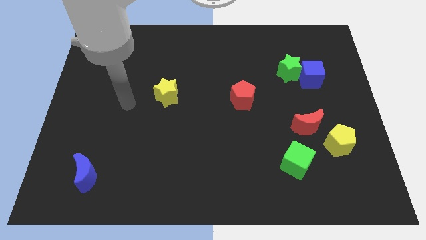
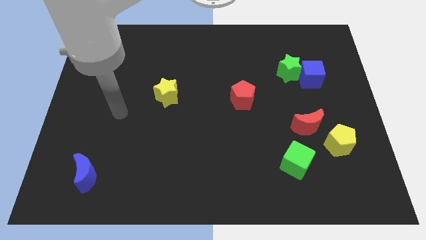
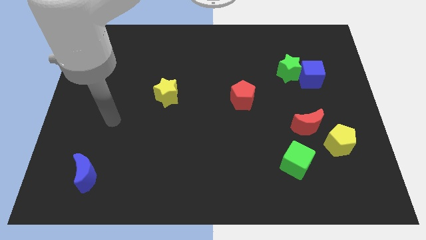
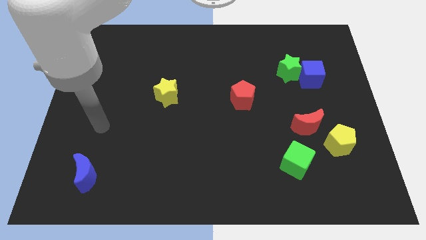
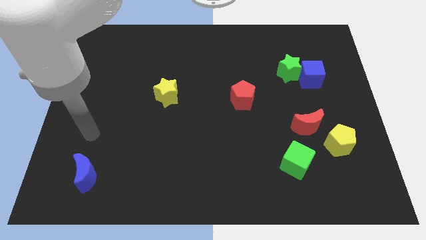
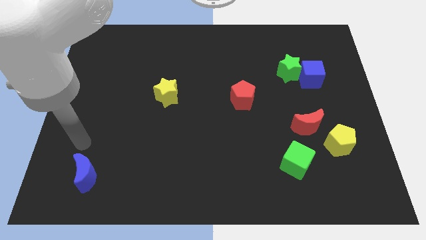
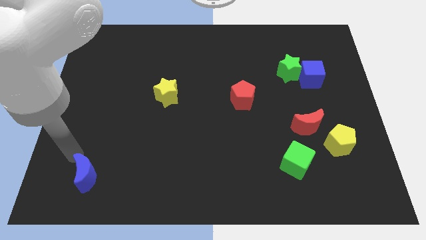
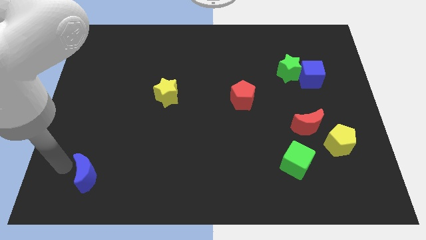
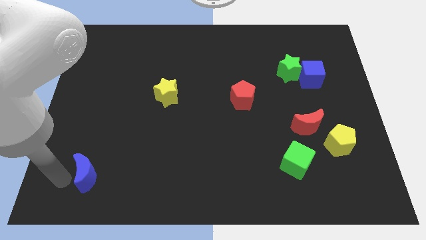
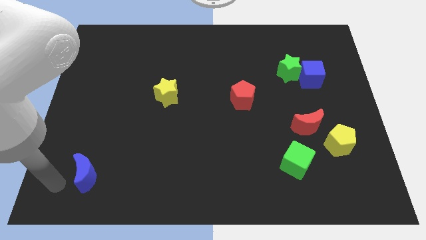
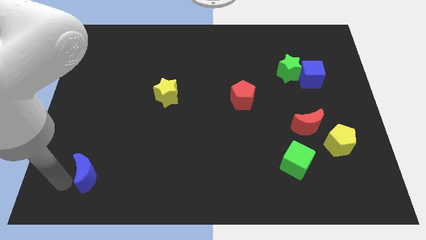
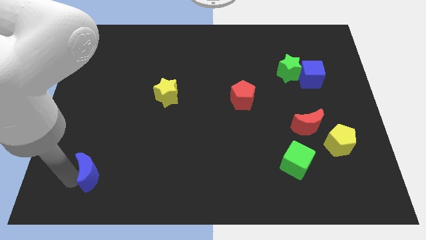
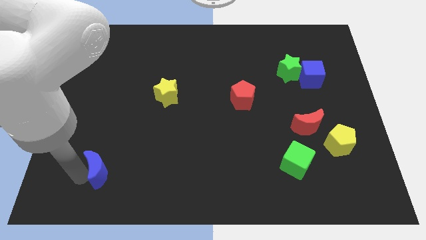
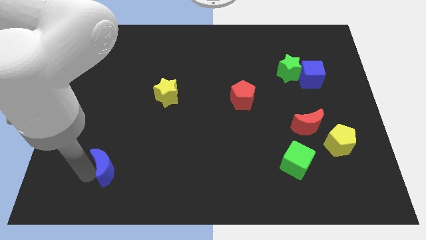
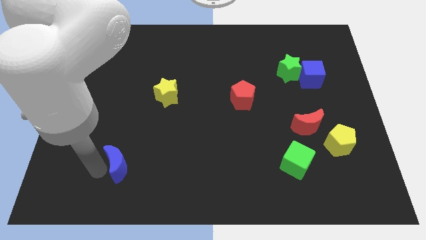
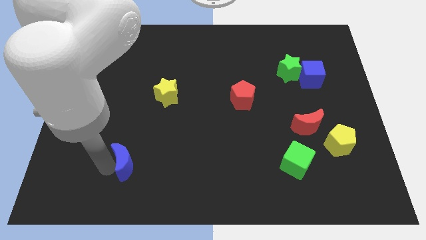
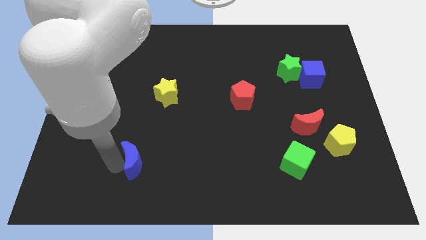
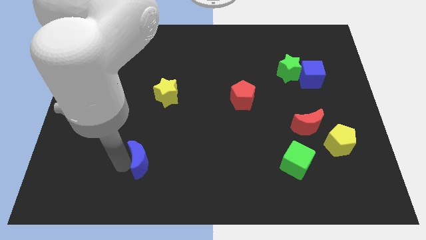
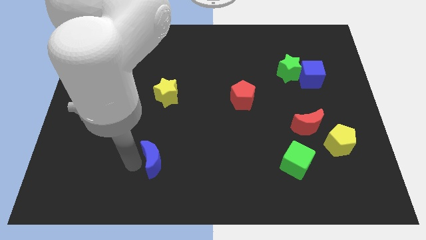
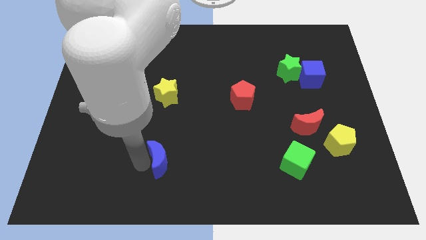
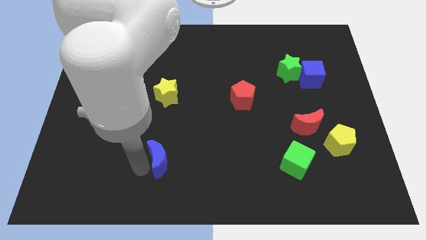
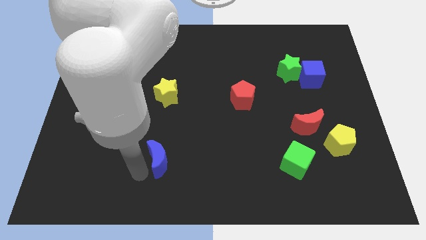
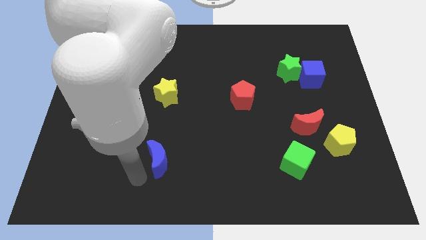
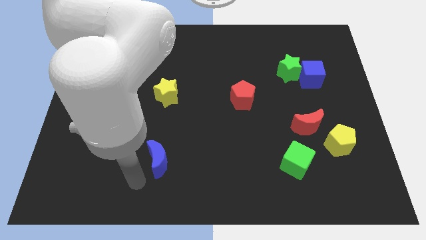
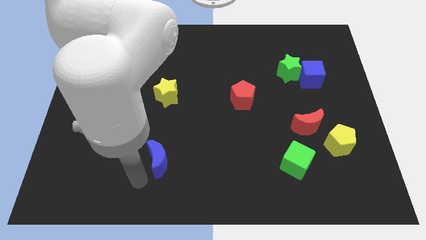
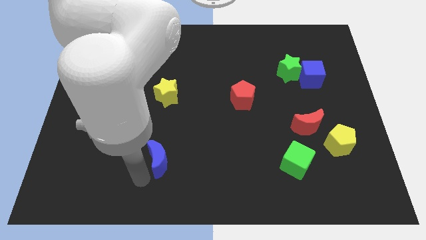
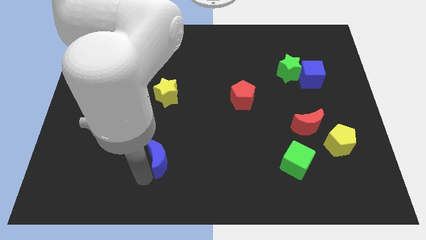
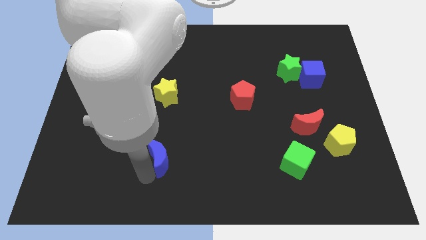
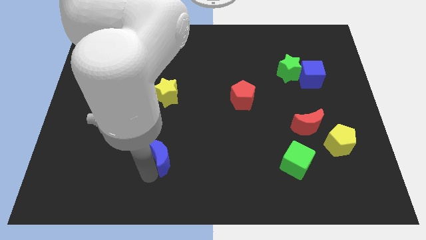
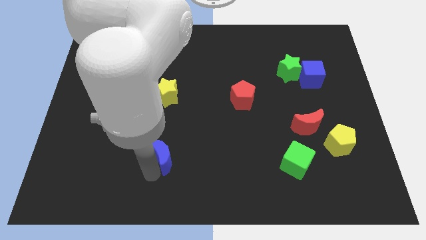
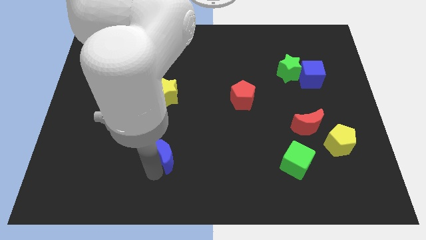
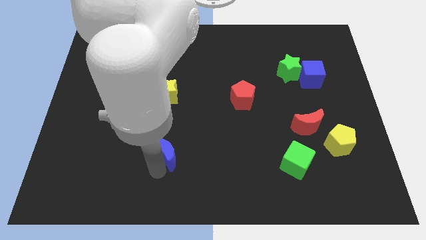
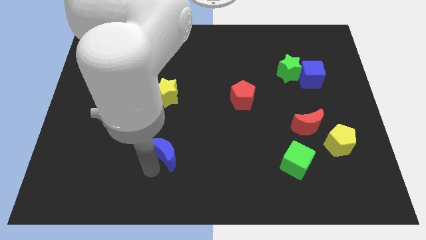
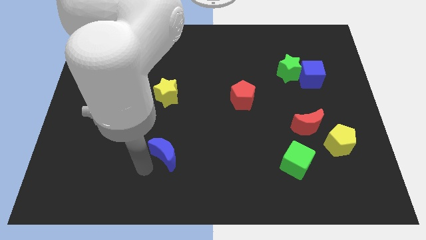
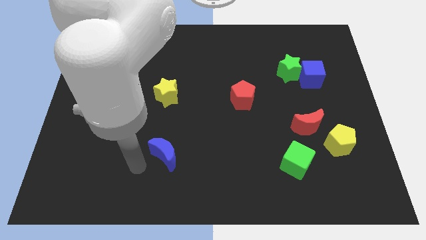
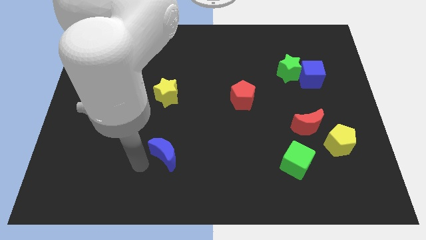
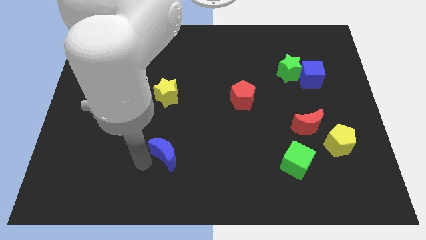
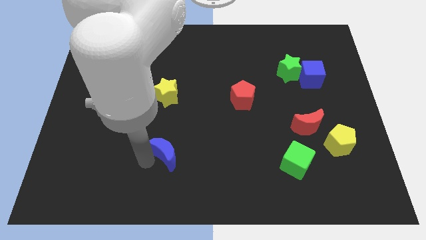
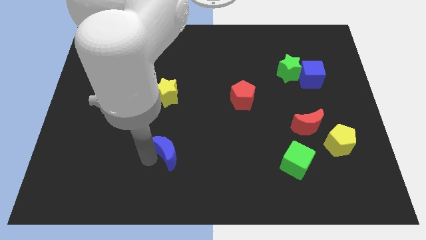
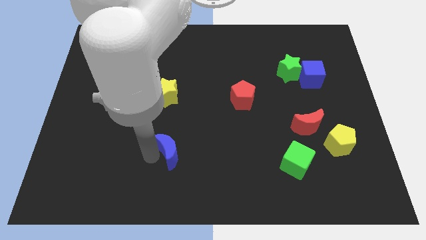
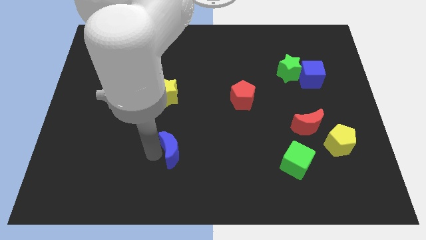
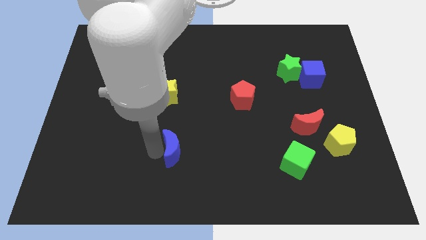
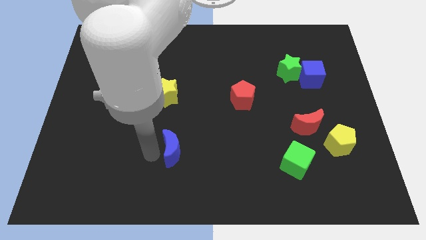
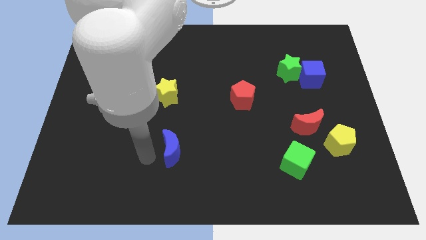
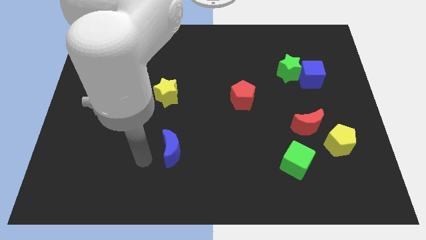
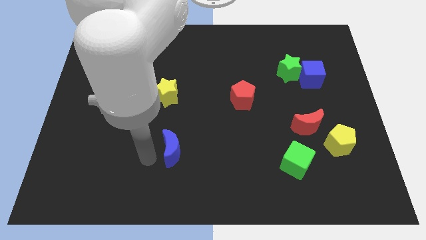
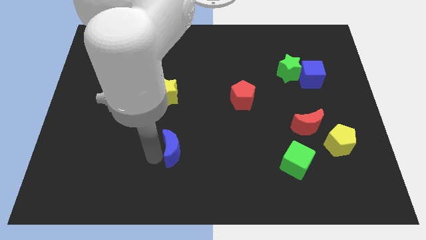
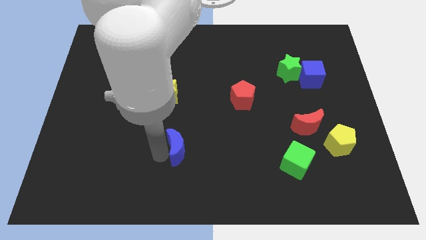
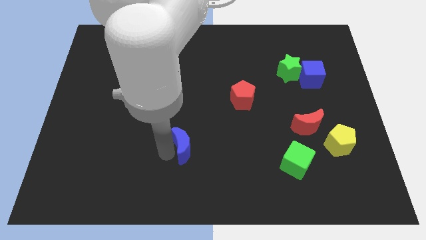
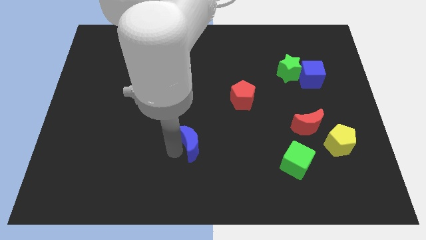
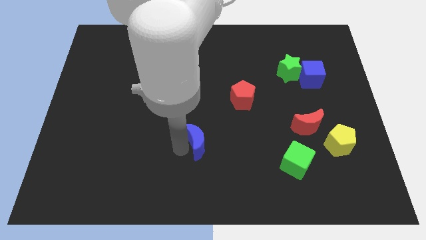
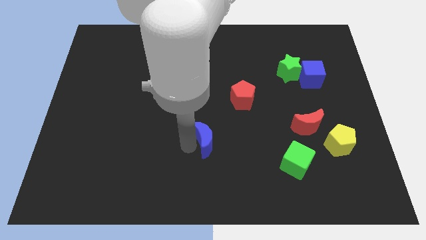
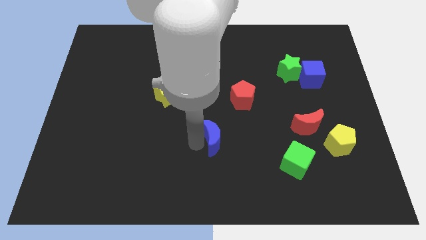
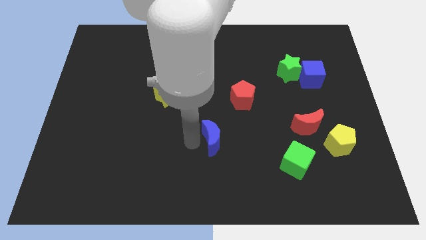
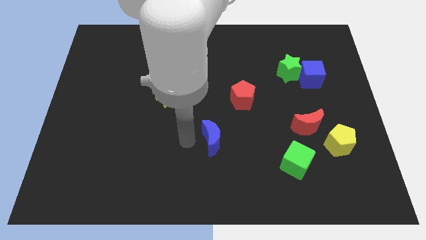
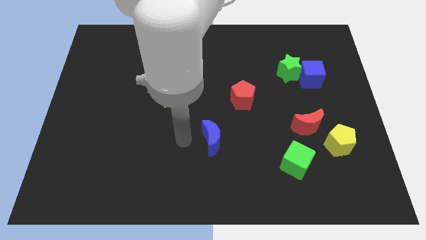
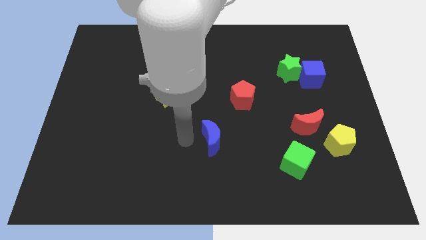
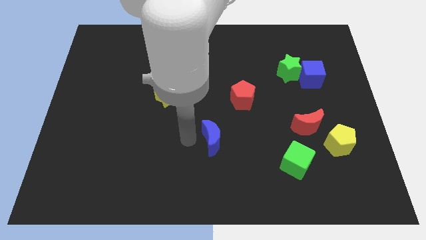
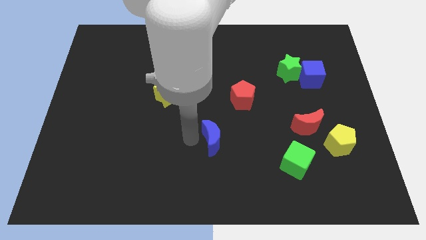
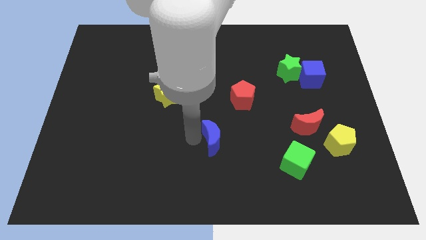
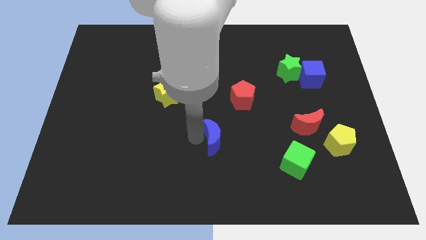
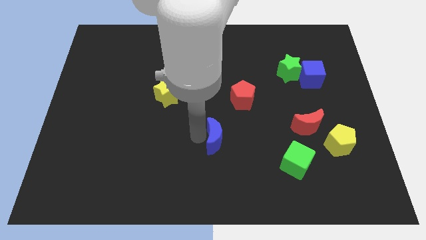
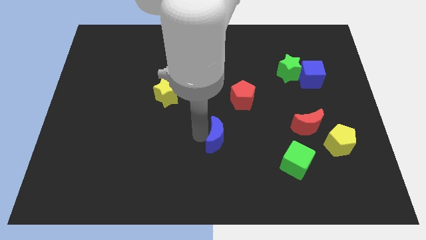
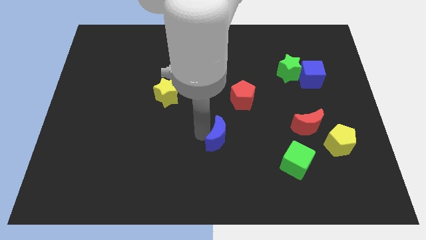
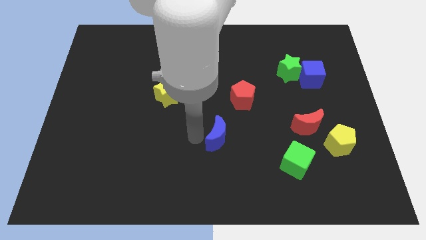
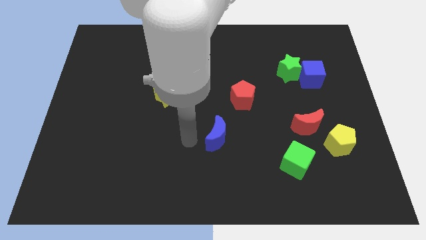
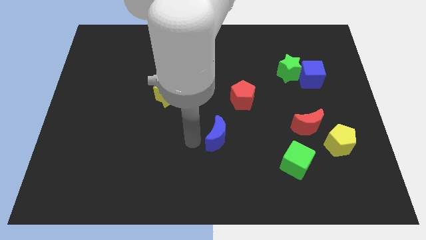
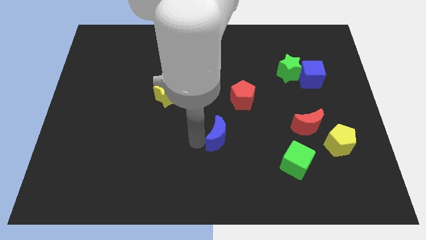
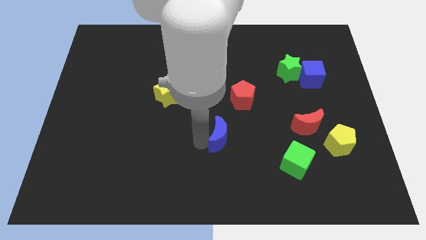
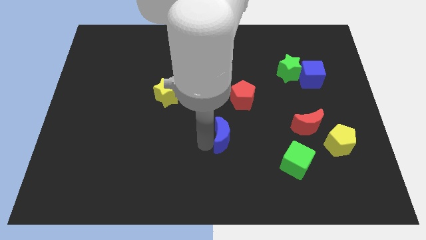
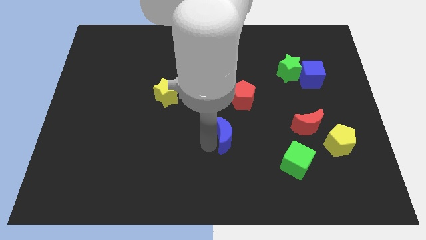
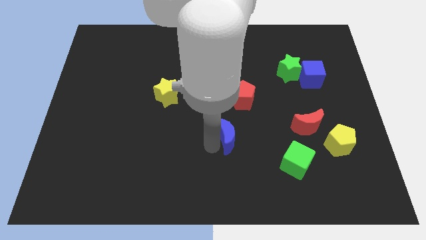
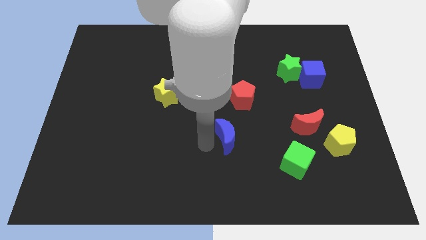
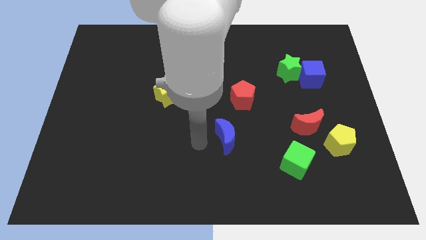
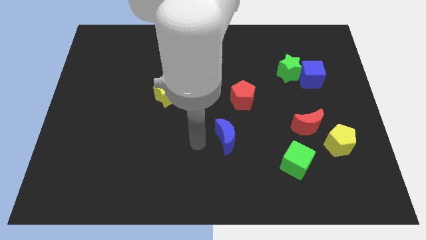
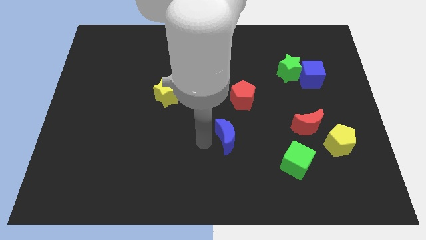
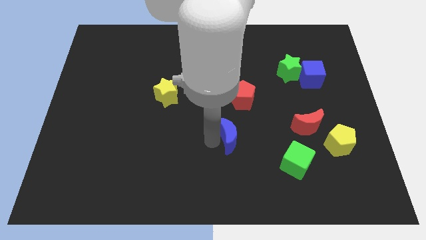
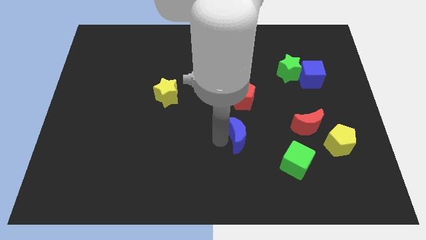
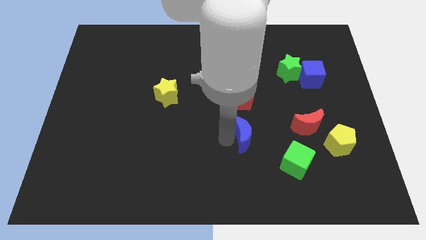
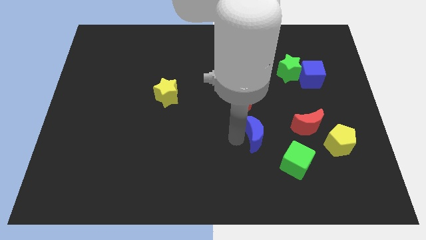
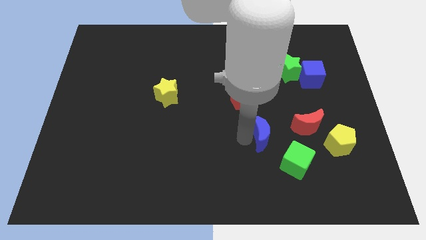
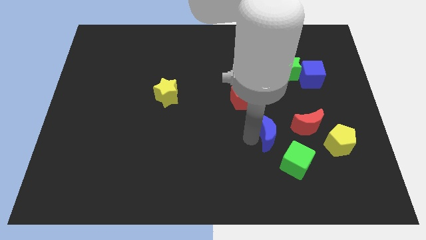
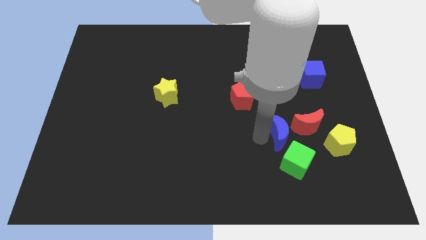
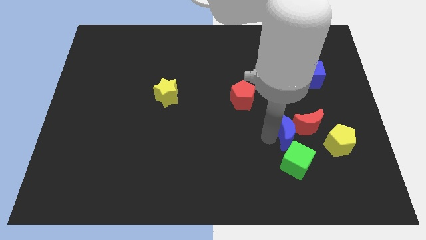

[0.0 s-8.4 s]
slide the blue moon towards the red moon
